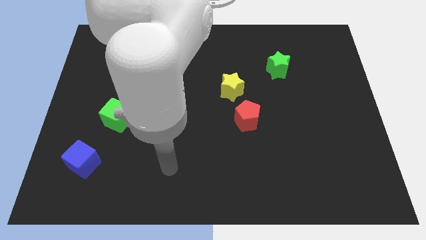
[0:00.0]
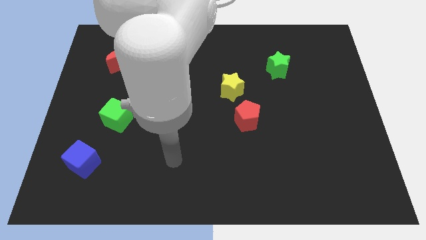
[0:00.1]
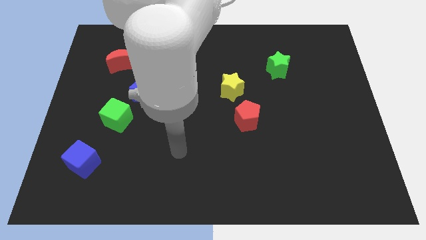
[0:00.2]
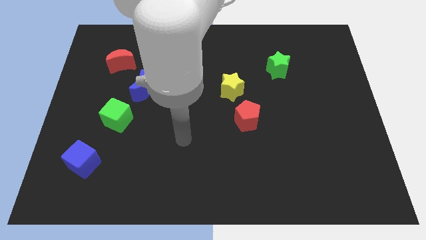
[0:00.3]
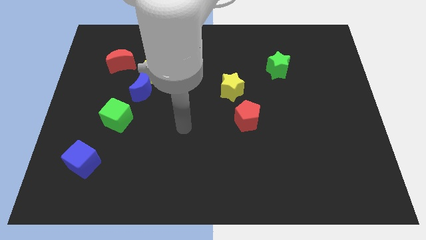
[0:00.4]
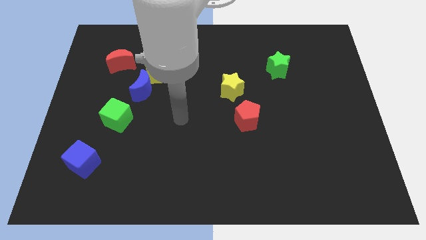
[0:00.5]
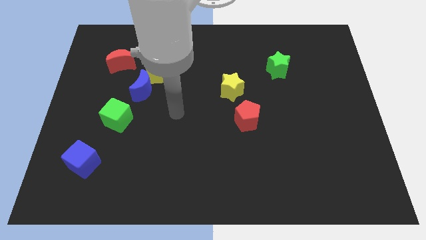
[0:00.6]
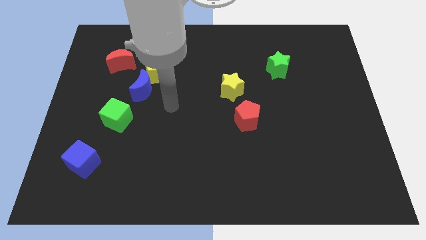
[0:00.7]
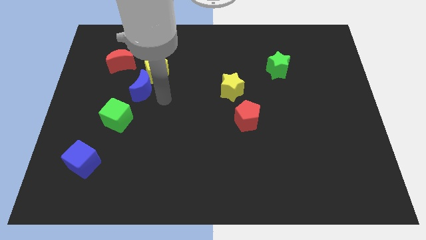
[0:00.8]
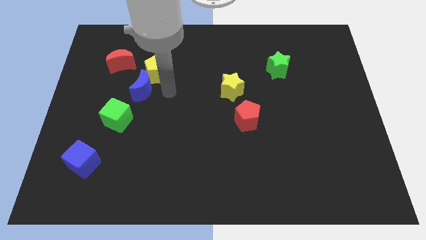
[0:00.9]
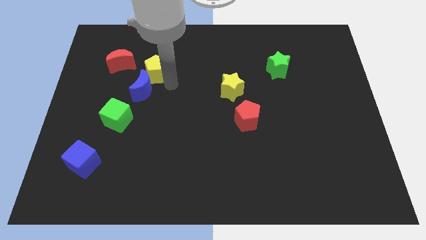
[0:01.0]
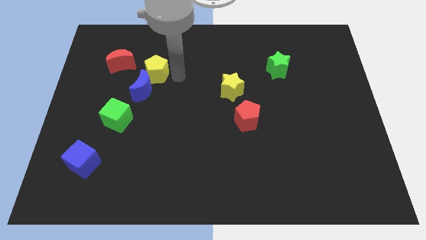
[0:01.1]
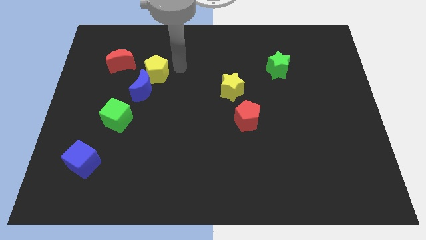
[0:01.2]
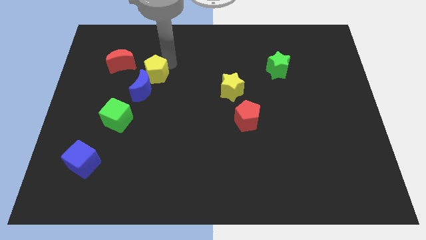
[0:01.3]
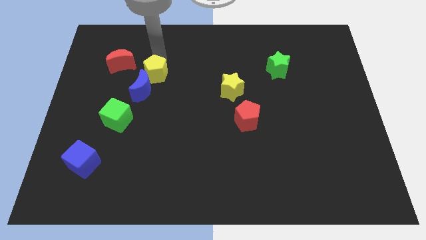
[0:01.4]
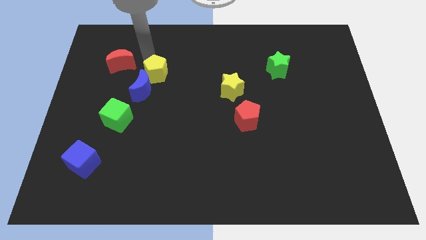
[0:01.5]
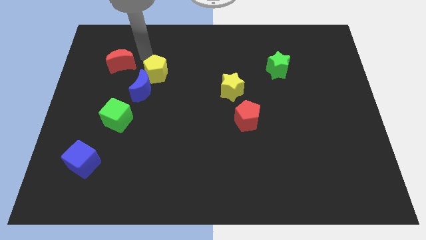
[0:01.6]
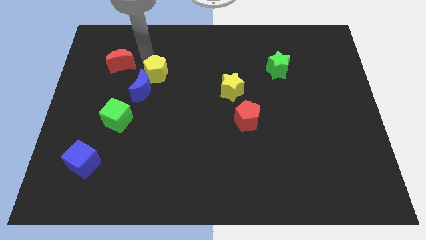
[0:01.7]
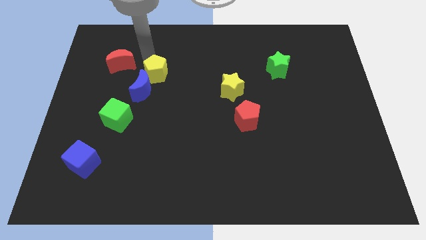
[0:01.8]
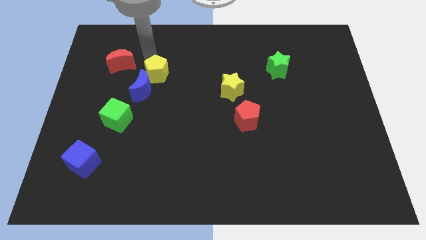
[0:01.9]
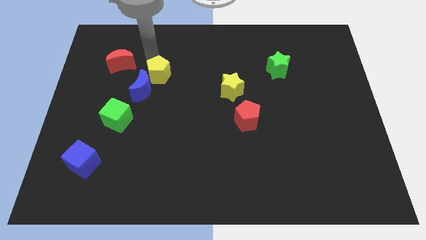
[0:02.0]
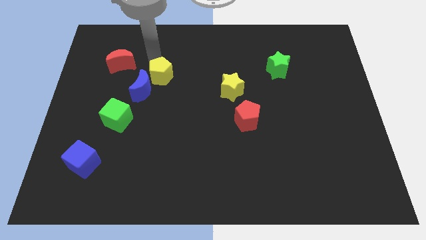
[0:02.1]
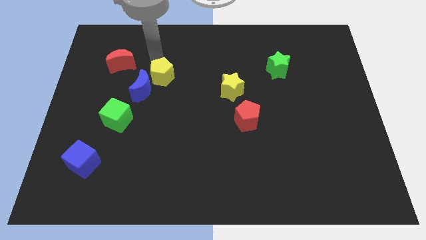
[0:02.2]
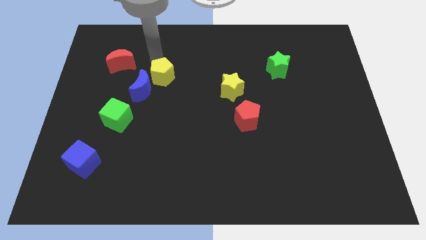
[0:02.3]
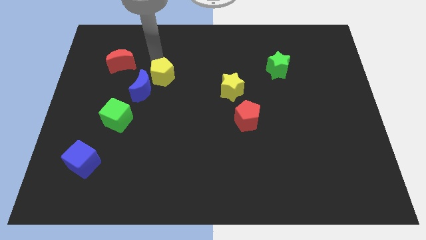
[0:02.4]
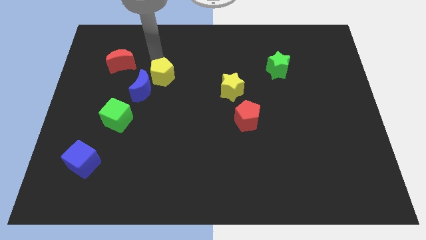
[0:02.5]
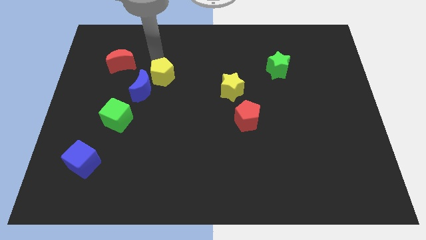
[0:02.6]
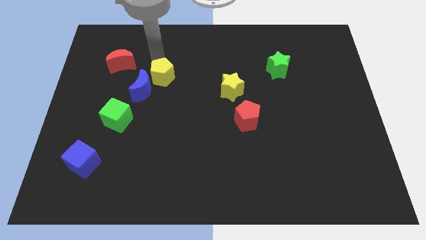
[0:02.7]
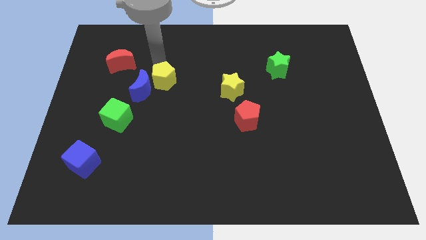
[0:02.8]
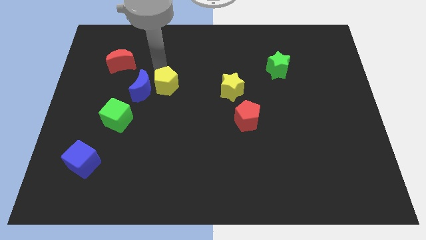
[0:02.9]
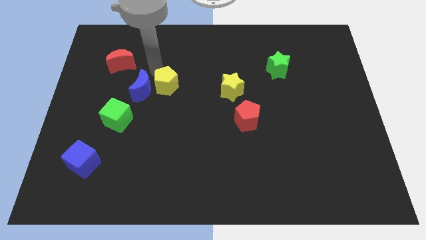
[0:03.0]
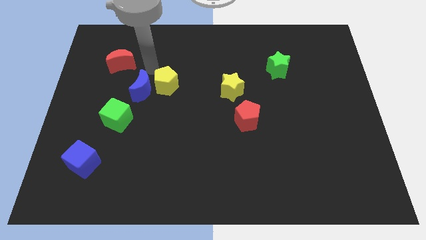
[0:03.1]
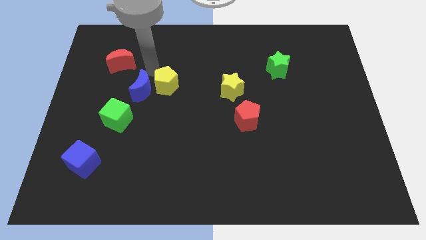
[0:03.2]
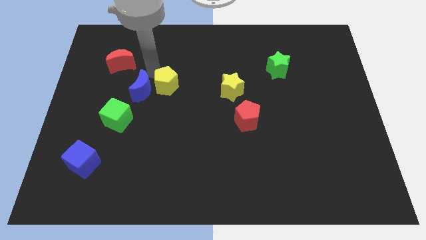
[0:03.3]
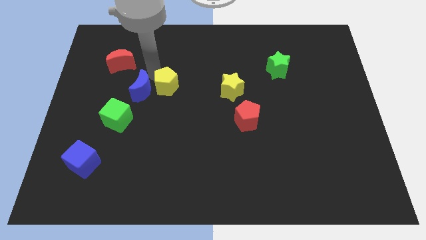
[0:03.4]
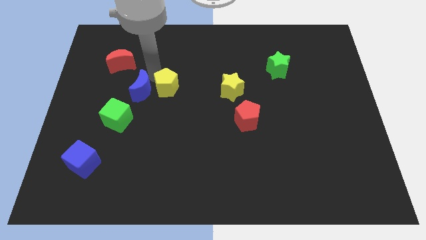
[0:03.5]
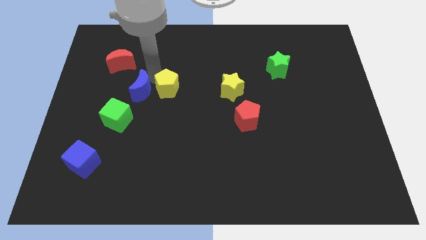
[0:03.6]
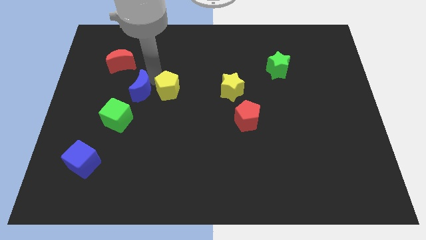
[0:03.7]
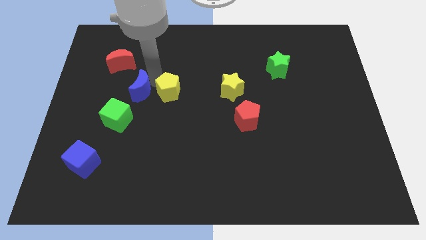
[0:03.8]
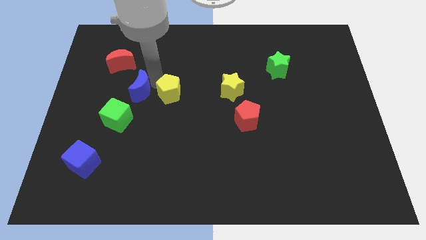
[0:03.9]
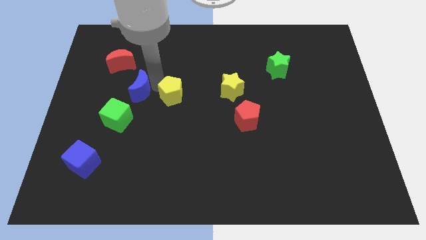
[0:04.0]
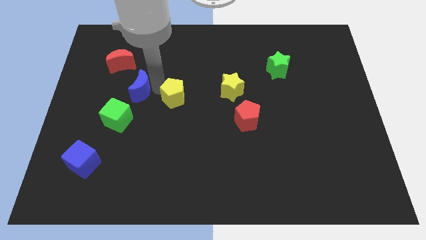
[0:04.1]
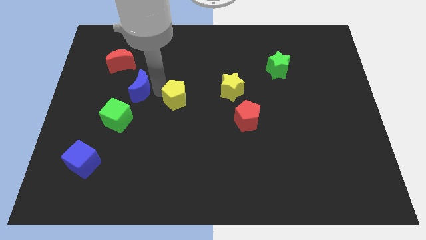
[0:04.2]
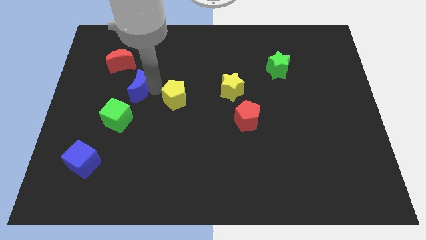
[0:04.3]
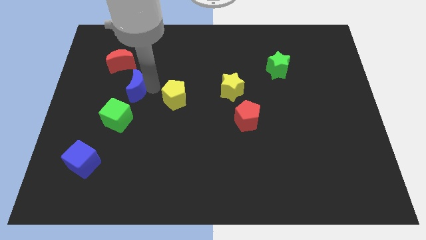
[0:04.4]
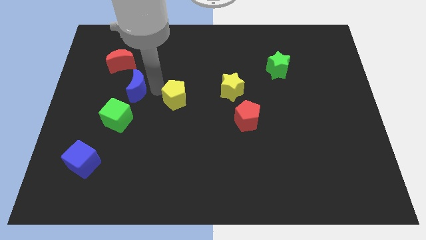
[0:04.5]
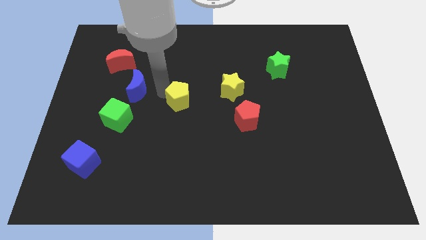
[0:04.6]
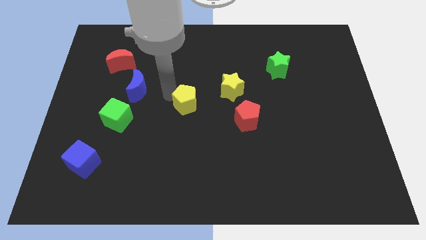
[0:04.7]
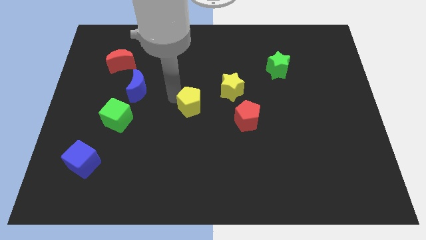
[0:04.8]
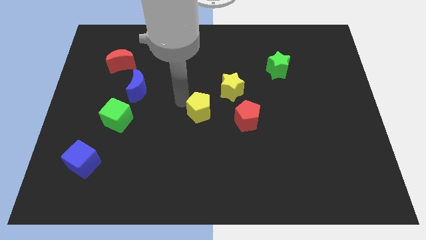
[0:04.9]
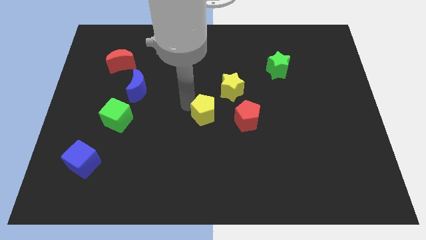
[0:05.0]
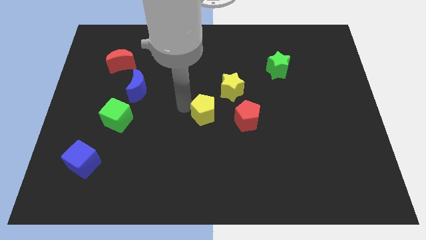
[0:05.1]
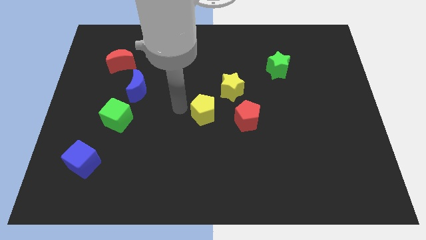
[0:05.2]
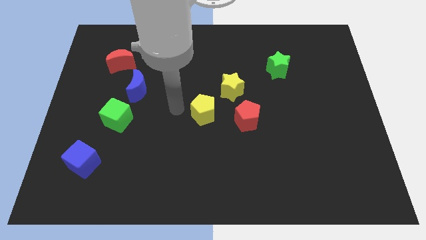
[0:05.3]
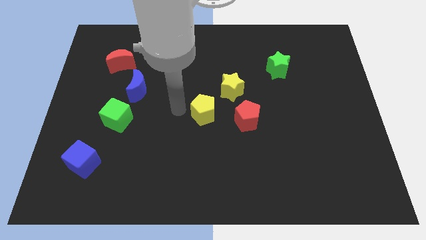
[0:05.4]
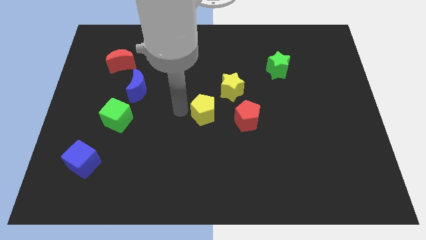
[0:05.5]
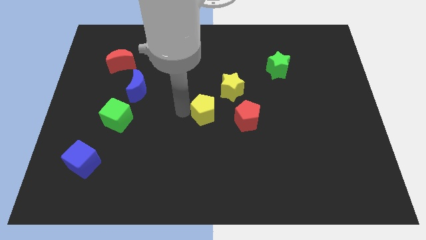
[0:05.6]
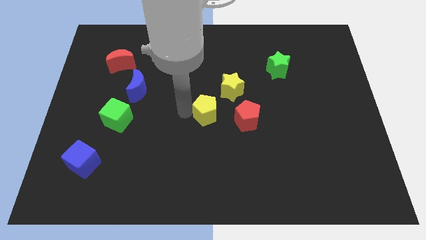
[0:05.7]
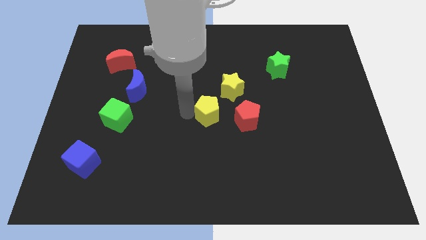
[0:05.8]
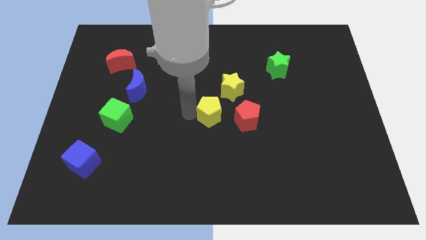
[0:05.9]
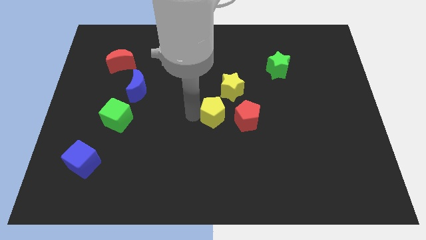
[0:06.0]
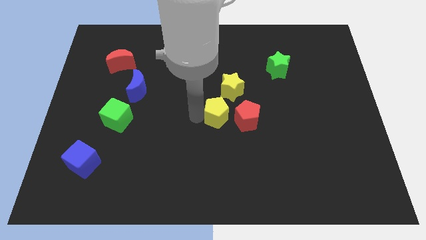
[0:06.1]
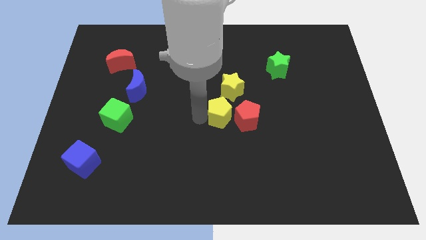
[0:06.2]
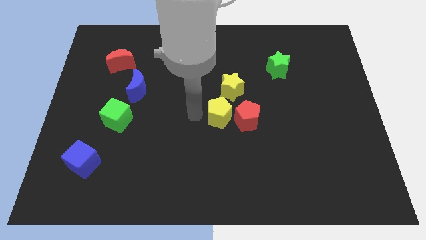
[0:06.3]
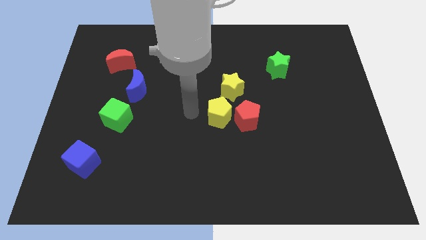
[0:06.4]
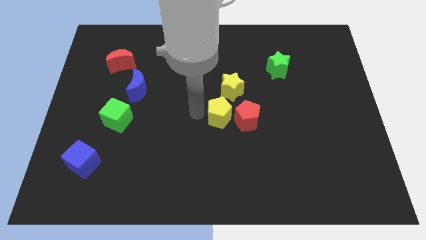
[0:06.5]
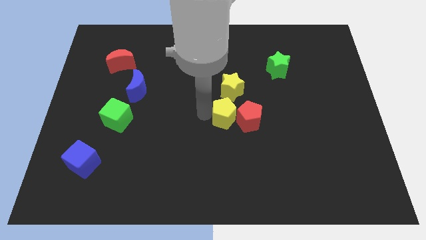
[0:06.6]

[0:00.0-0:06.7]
move the yellow pentagon next to the red pentagon

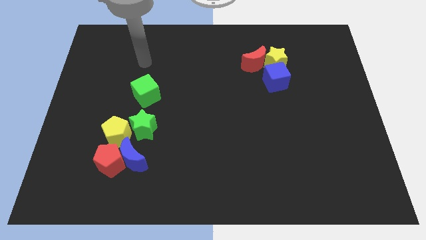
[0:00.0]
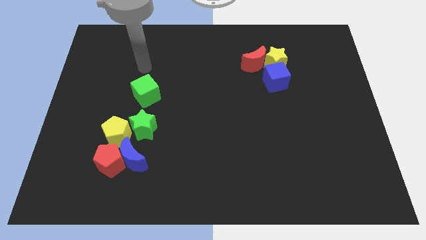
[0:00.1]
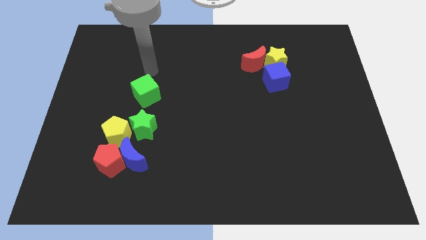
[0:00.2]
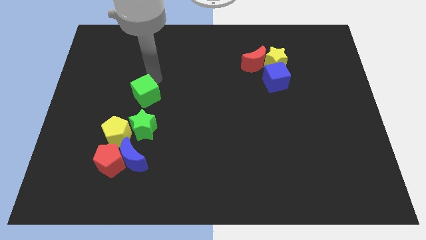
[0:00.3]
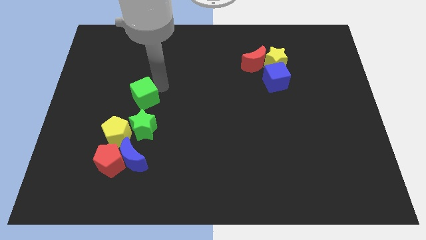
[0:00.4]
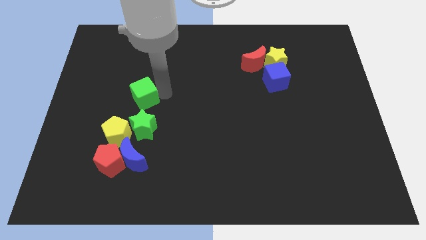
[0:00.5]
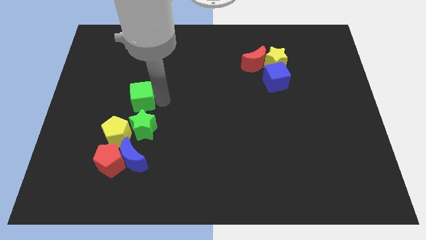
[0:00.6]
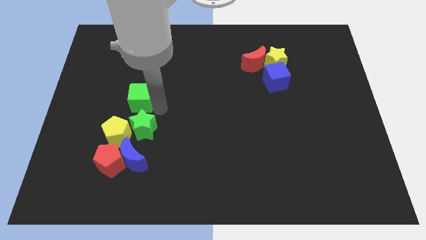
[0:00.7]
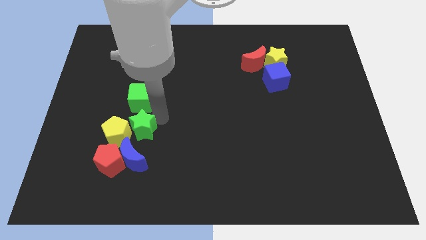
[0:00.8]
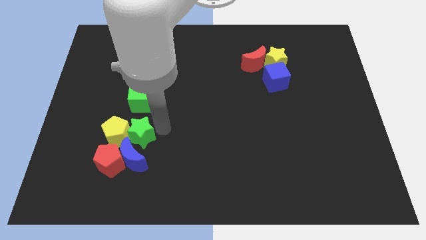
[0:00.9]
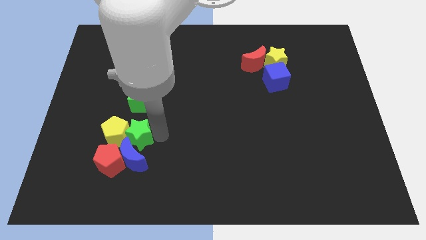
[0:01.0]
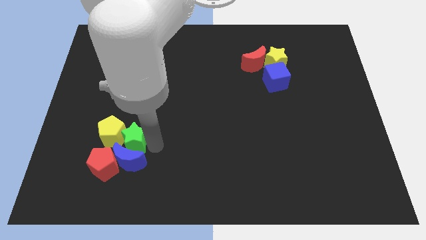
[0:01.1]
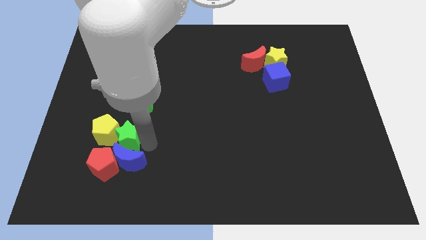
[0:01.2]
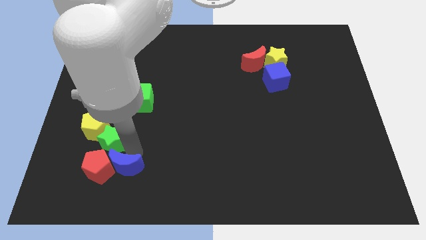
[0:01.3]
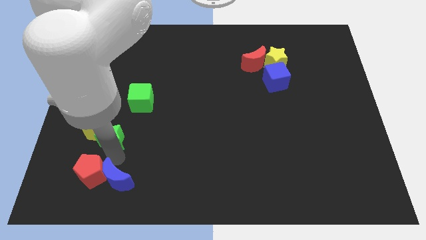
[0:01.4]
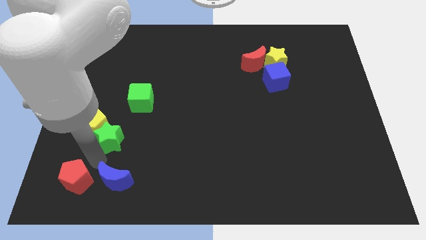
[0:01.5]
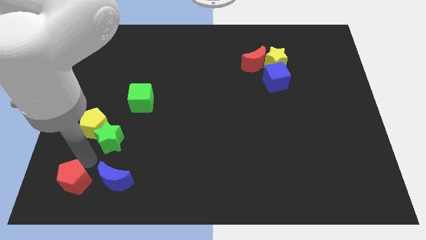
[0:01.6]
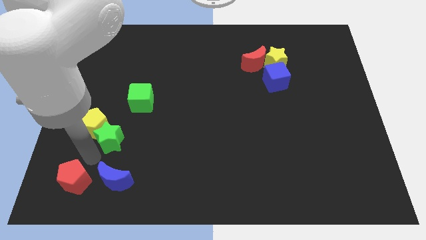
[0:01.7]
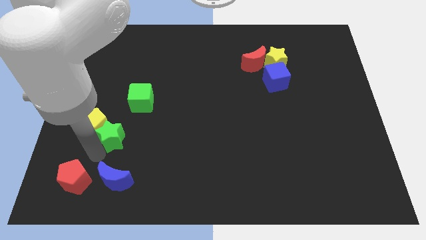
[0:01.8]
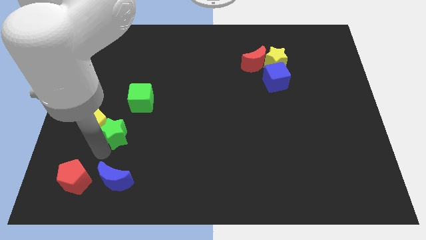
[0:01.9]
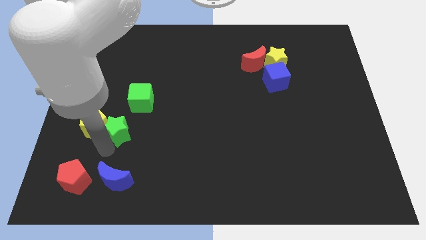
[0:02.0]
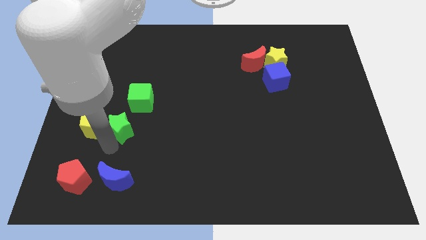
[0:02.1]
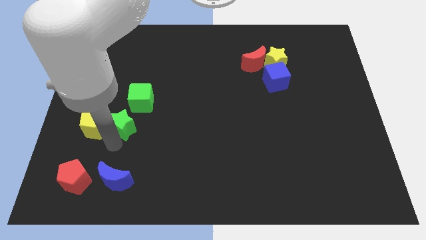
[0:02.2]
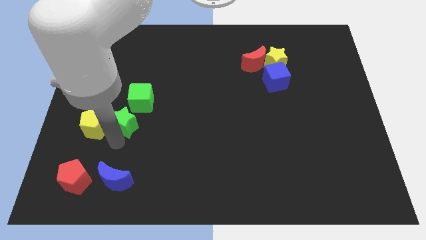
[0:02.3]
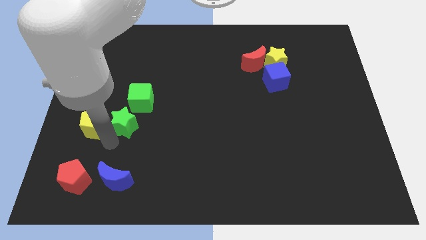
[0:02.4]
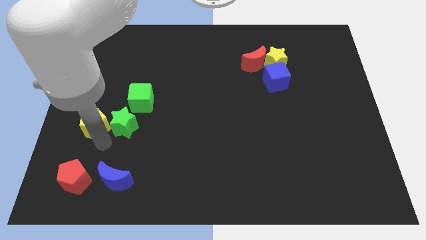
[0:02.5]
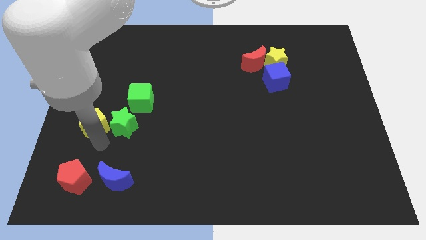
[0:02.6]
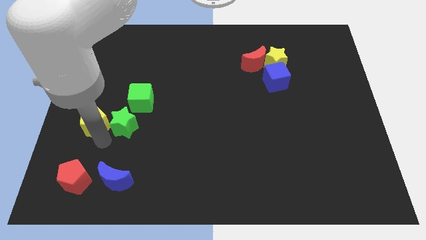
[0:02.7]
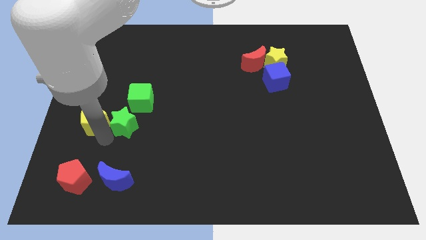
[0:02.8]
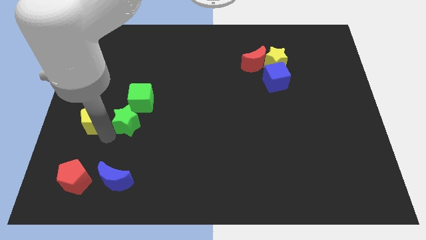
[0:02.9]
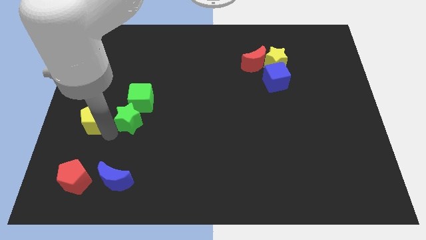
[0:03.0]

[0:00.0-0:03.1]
move the green star close to the green cube
